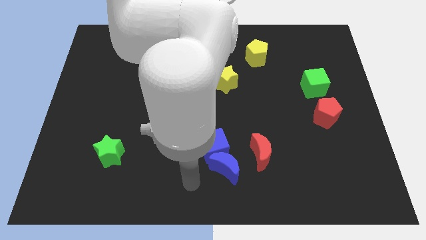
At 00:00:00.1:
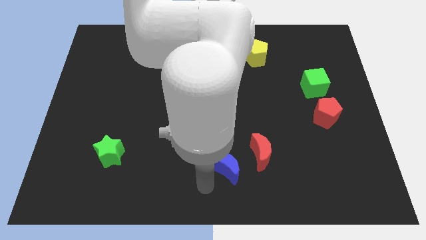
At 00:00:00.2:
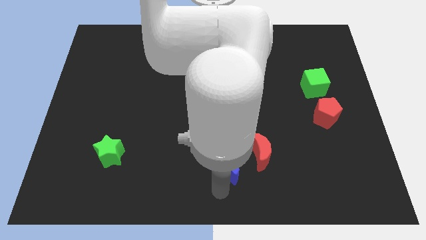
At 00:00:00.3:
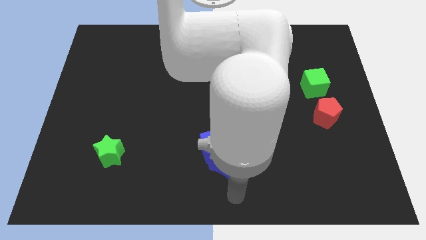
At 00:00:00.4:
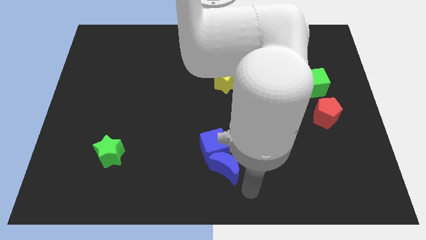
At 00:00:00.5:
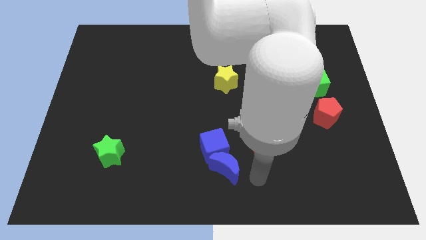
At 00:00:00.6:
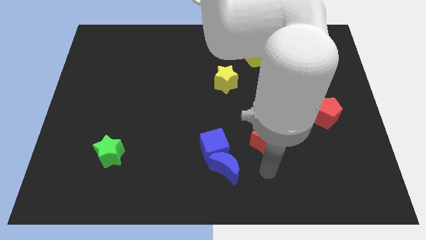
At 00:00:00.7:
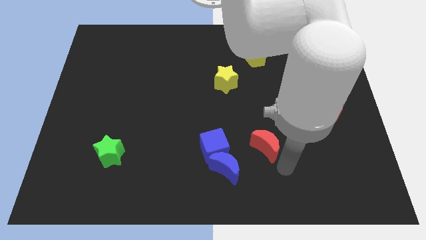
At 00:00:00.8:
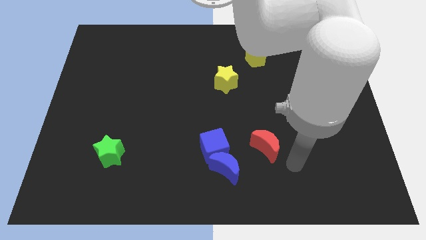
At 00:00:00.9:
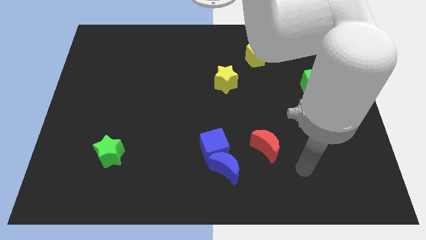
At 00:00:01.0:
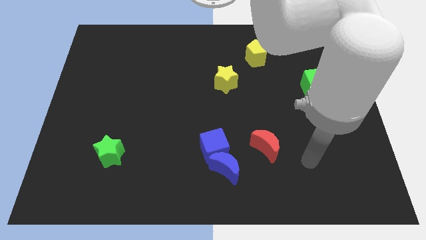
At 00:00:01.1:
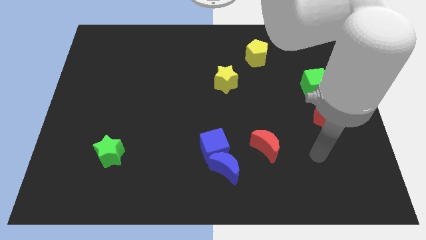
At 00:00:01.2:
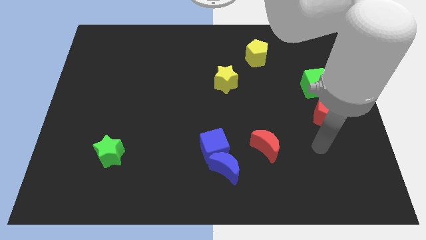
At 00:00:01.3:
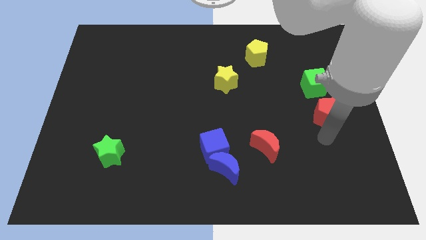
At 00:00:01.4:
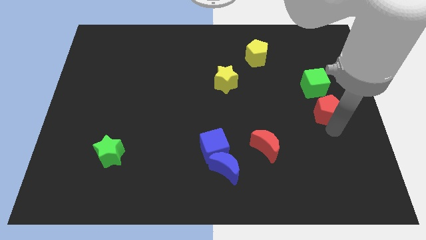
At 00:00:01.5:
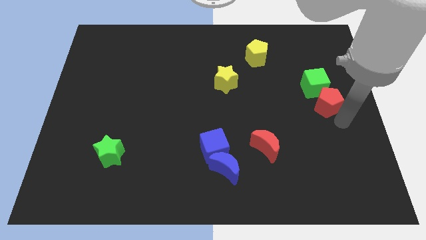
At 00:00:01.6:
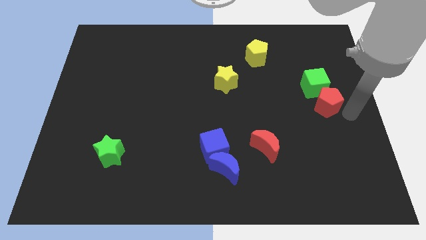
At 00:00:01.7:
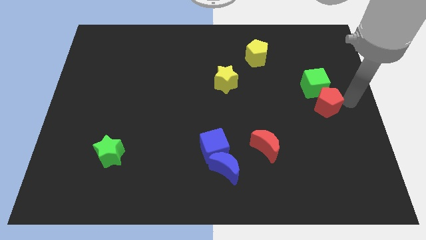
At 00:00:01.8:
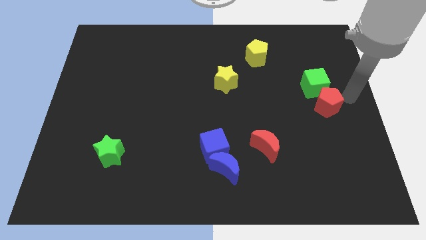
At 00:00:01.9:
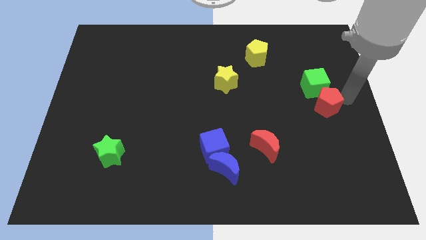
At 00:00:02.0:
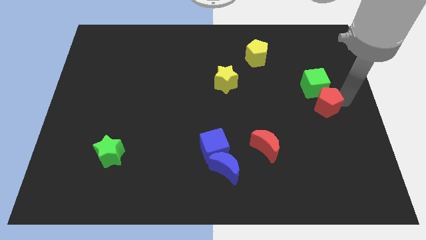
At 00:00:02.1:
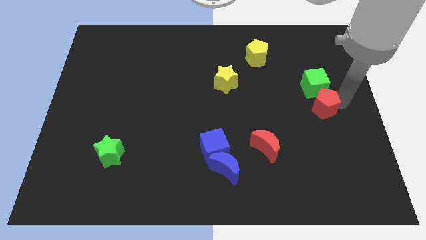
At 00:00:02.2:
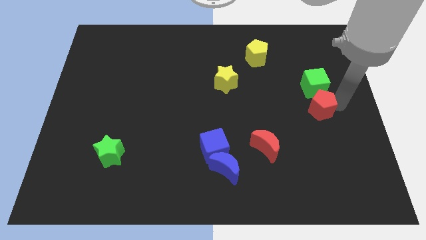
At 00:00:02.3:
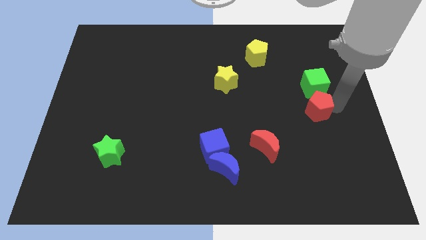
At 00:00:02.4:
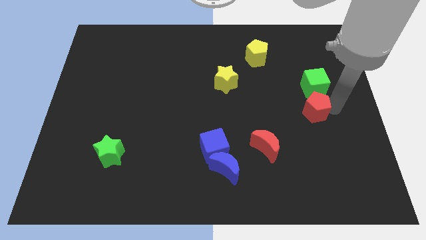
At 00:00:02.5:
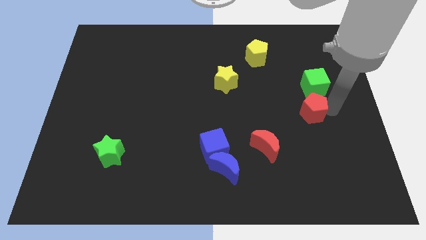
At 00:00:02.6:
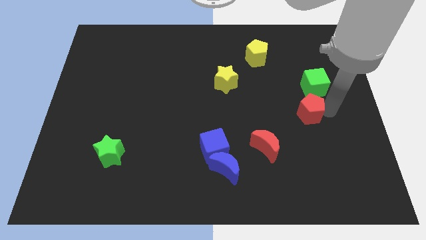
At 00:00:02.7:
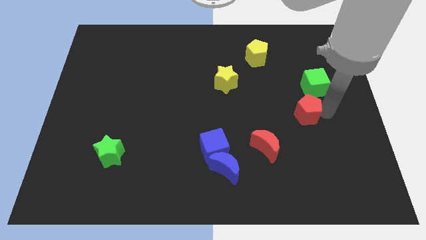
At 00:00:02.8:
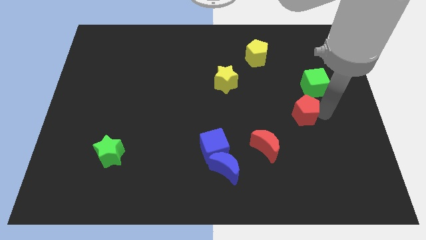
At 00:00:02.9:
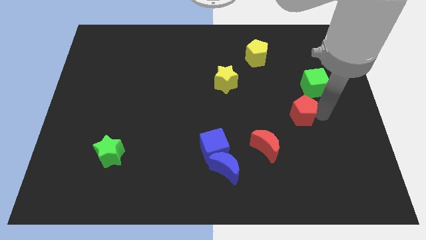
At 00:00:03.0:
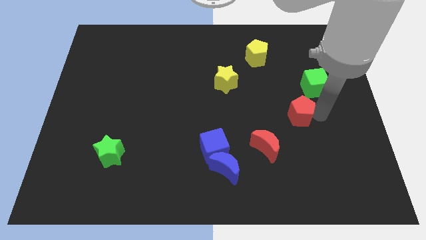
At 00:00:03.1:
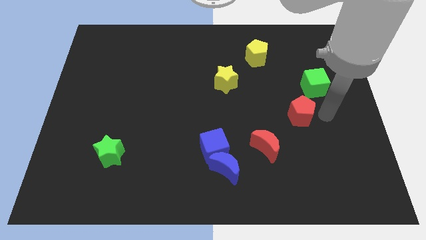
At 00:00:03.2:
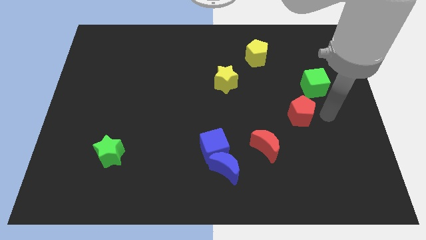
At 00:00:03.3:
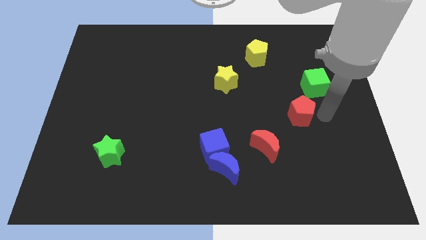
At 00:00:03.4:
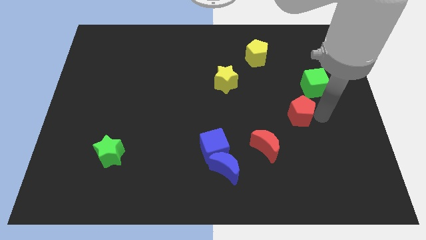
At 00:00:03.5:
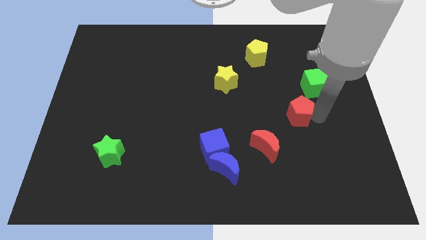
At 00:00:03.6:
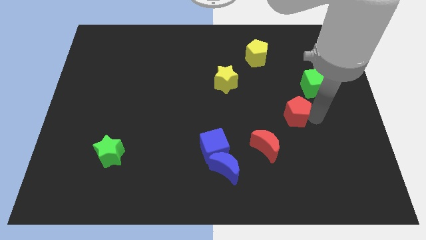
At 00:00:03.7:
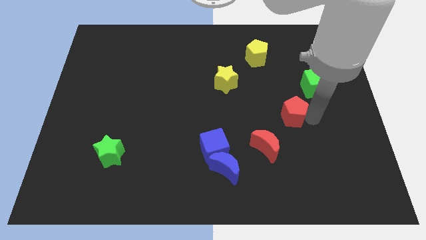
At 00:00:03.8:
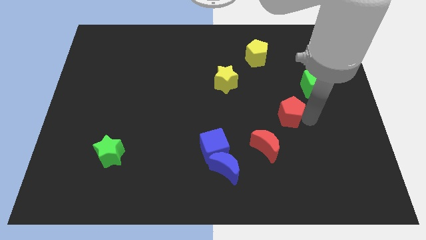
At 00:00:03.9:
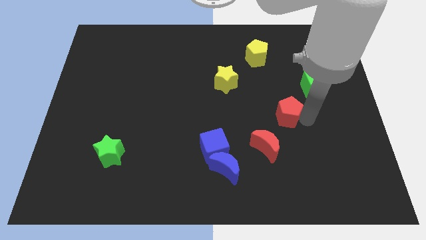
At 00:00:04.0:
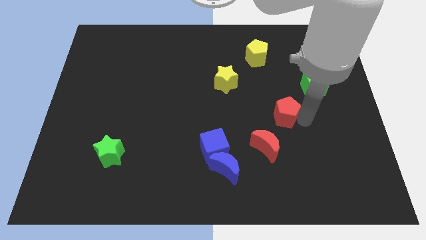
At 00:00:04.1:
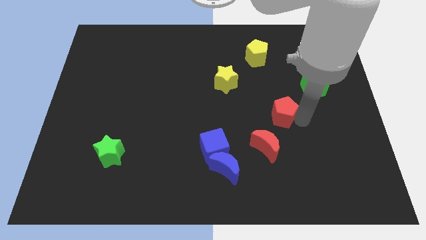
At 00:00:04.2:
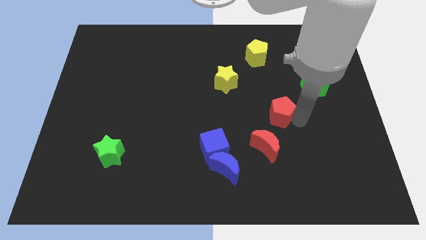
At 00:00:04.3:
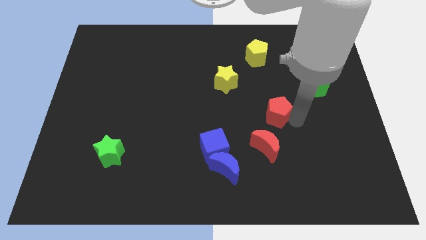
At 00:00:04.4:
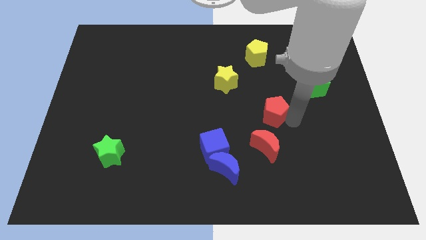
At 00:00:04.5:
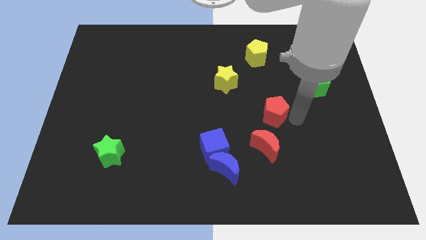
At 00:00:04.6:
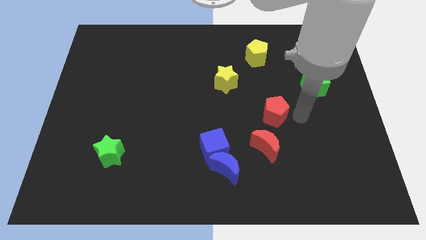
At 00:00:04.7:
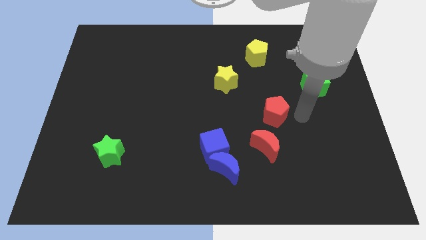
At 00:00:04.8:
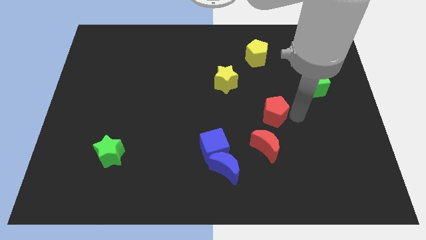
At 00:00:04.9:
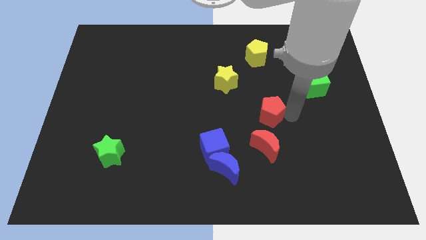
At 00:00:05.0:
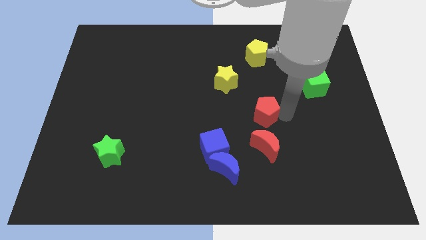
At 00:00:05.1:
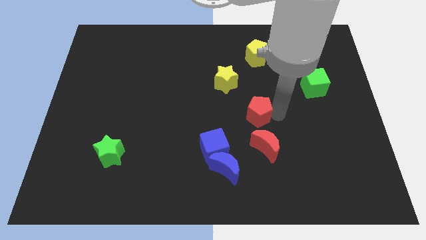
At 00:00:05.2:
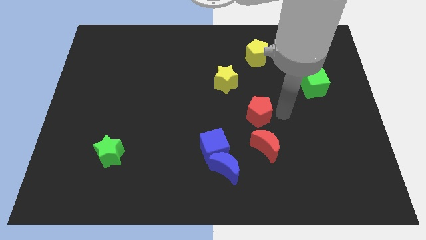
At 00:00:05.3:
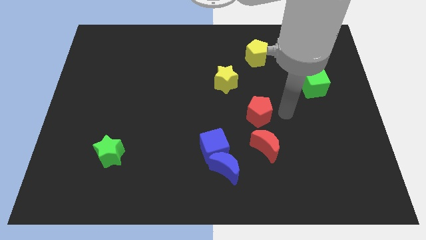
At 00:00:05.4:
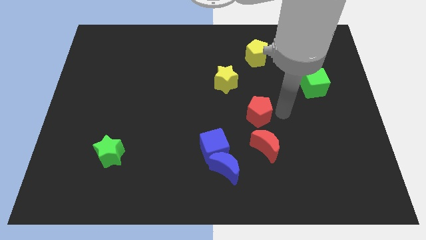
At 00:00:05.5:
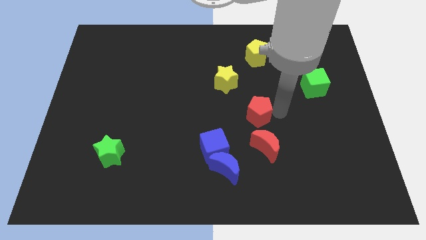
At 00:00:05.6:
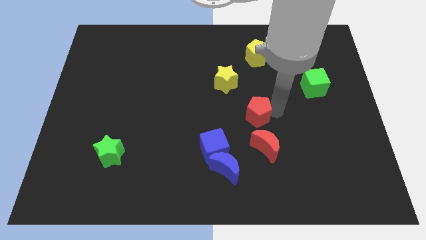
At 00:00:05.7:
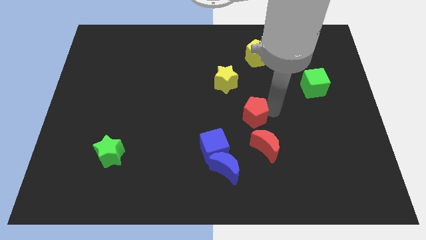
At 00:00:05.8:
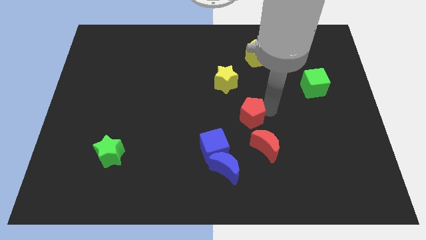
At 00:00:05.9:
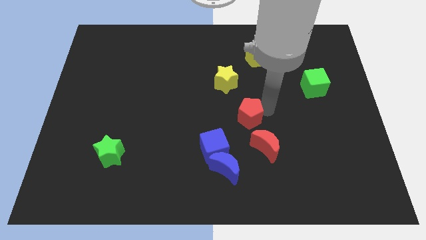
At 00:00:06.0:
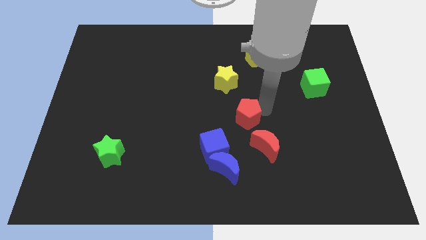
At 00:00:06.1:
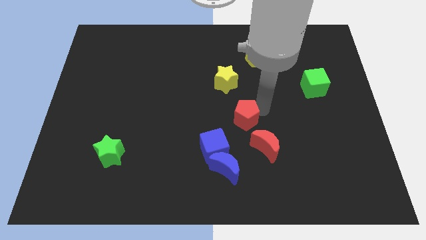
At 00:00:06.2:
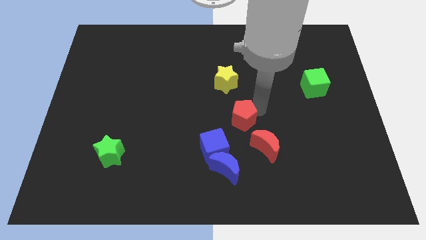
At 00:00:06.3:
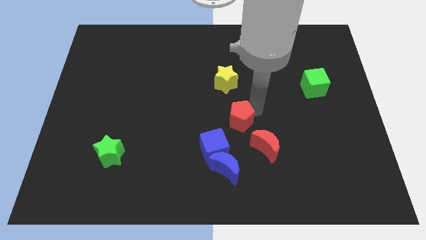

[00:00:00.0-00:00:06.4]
move the red pentagon to the left

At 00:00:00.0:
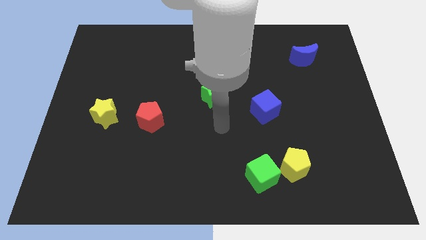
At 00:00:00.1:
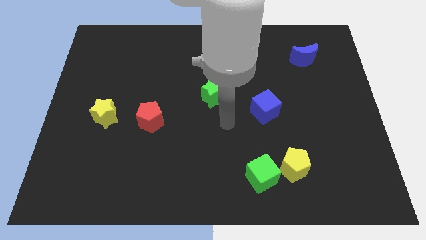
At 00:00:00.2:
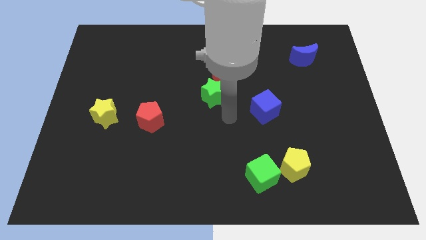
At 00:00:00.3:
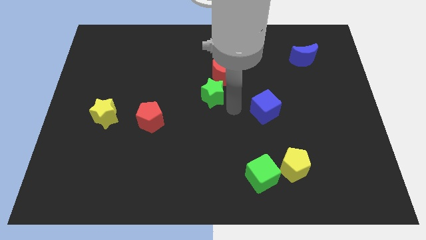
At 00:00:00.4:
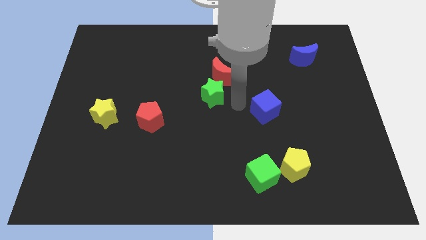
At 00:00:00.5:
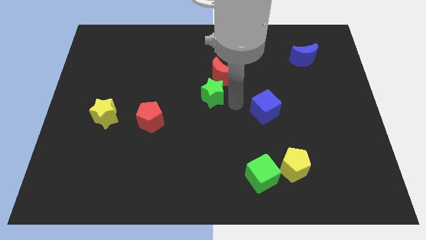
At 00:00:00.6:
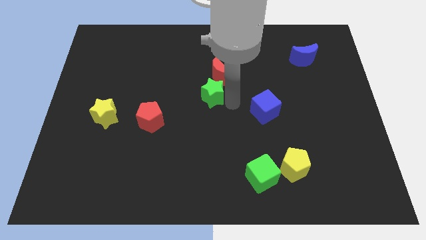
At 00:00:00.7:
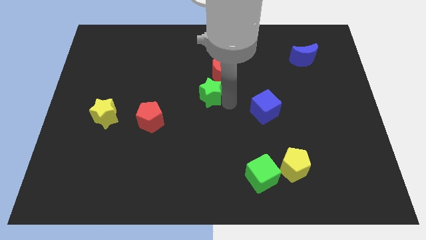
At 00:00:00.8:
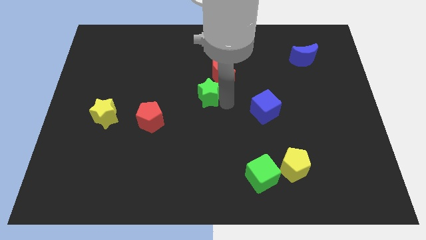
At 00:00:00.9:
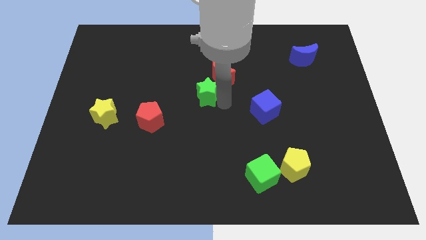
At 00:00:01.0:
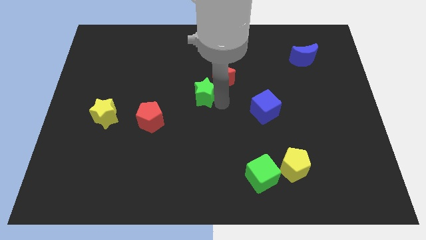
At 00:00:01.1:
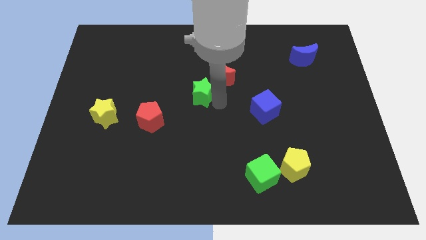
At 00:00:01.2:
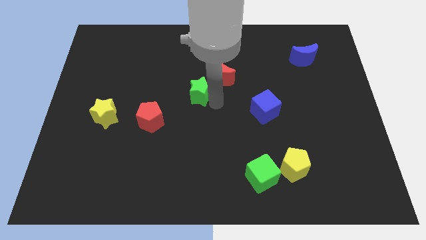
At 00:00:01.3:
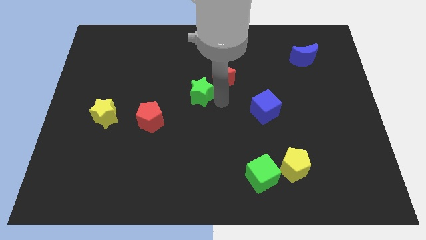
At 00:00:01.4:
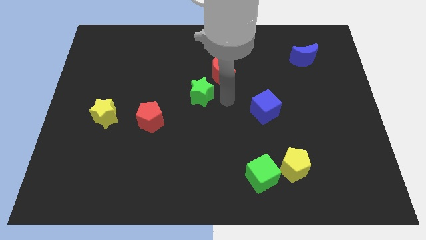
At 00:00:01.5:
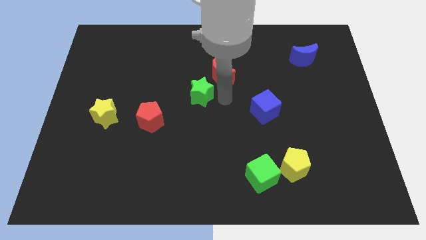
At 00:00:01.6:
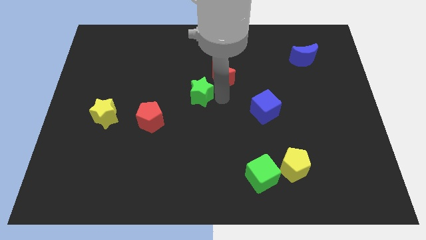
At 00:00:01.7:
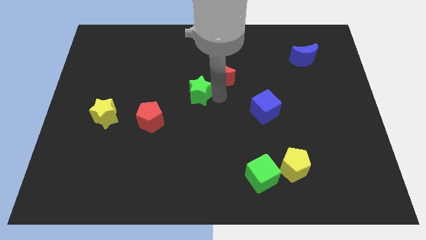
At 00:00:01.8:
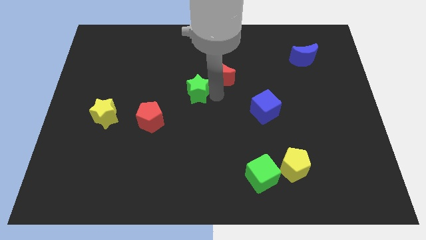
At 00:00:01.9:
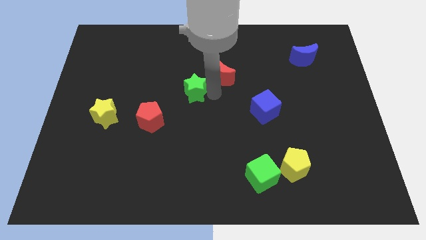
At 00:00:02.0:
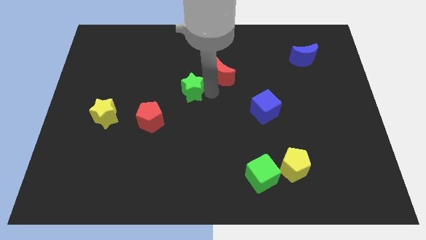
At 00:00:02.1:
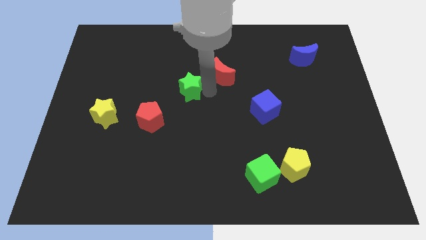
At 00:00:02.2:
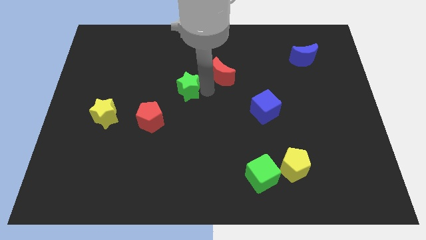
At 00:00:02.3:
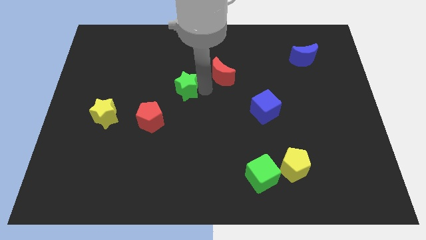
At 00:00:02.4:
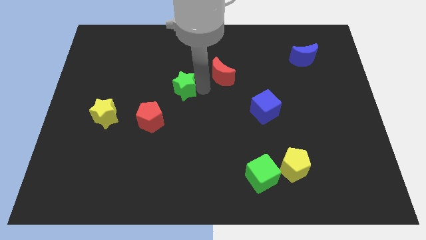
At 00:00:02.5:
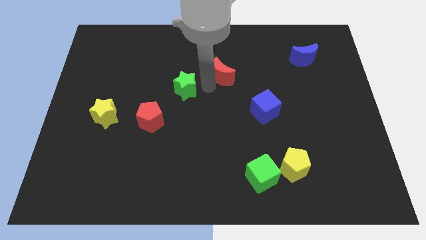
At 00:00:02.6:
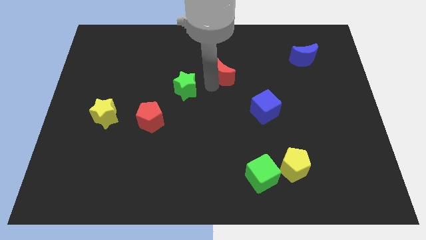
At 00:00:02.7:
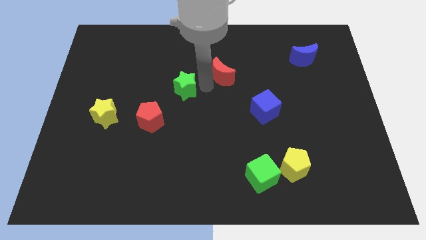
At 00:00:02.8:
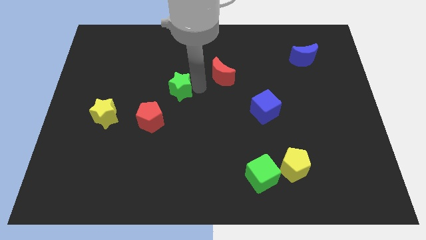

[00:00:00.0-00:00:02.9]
push the green star to the left somewhat
